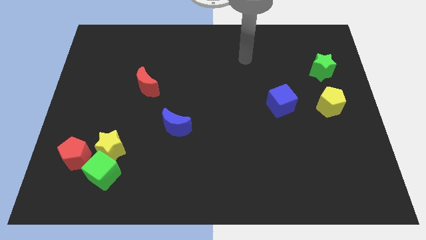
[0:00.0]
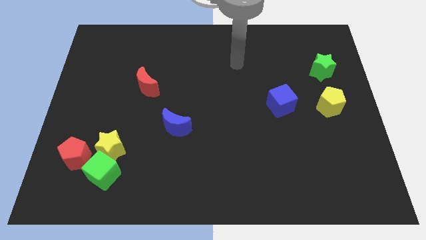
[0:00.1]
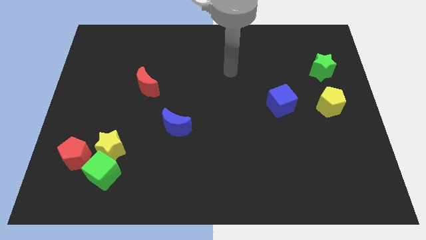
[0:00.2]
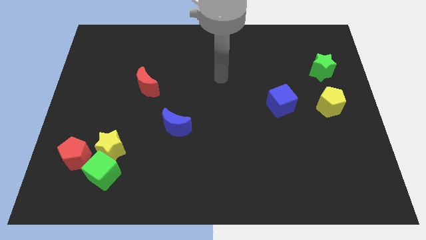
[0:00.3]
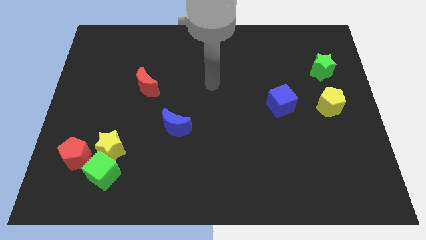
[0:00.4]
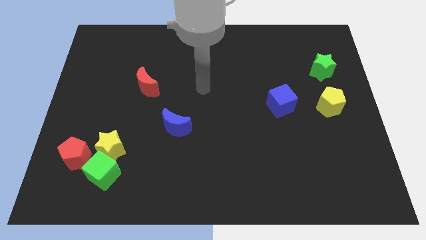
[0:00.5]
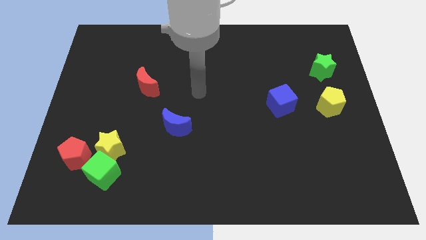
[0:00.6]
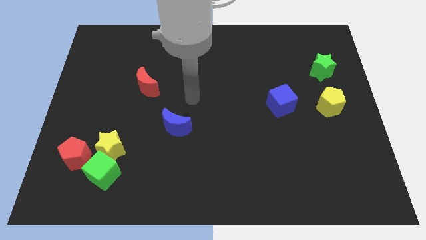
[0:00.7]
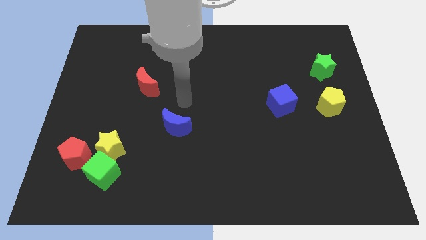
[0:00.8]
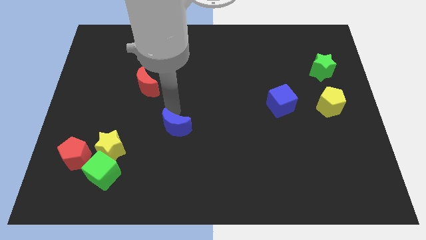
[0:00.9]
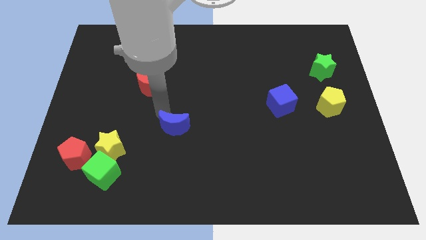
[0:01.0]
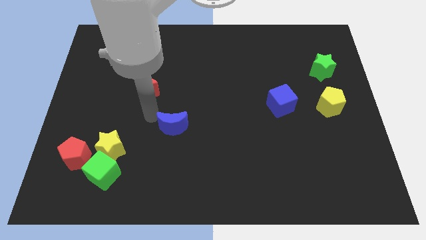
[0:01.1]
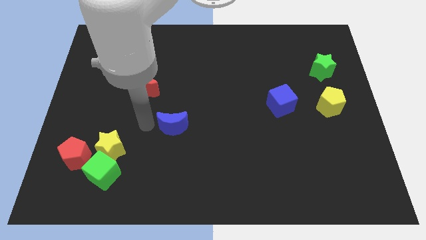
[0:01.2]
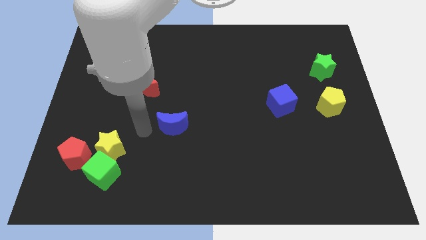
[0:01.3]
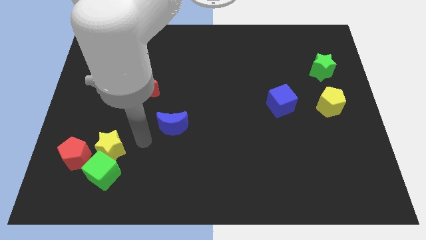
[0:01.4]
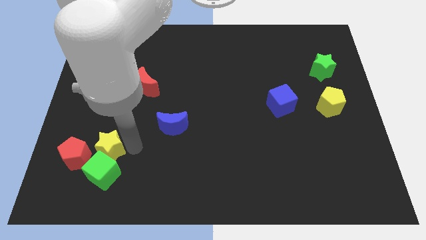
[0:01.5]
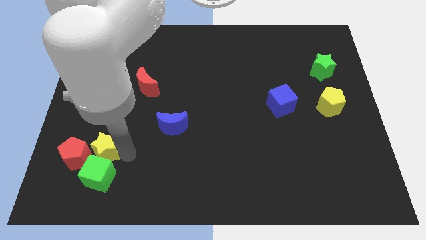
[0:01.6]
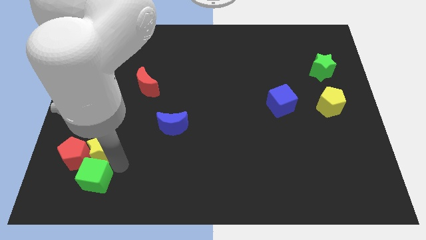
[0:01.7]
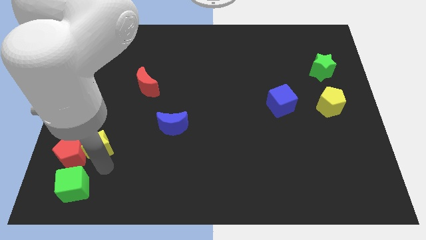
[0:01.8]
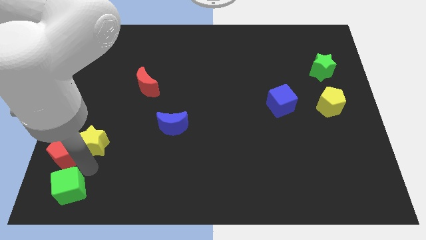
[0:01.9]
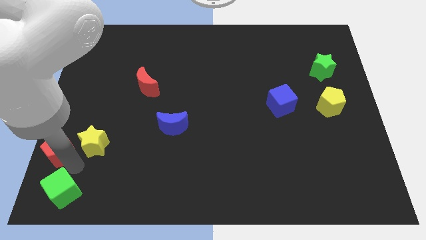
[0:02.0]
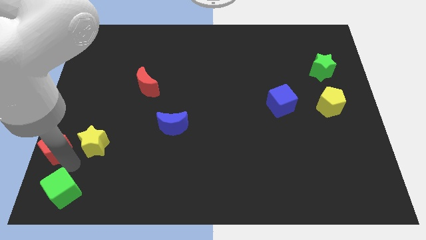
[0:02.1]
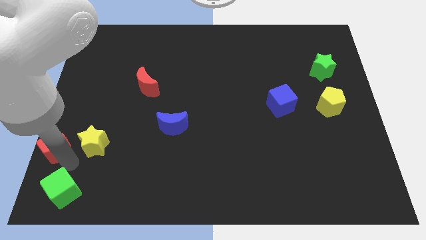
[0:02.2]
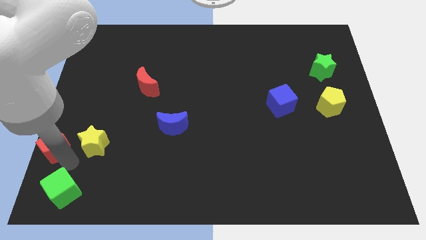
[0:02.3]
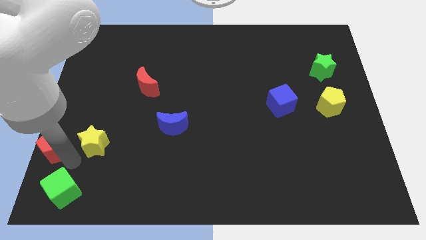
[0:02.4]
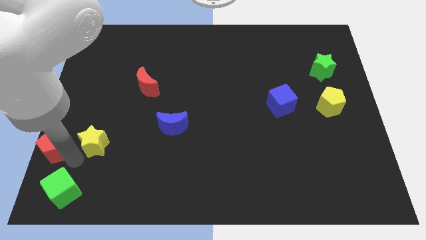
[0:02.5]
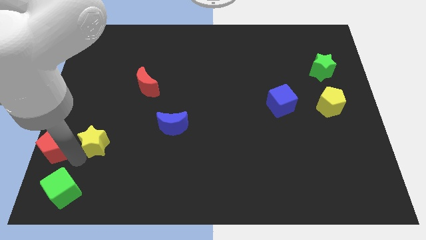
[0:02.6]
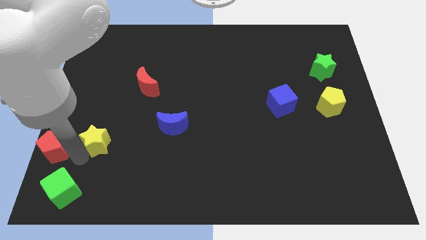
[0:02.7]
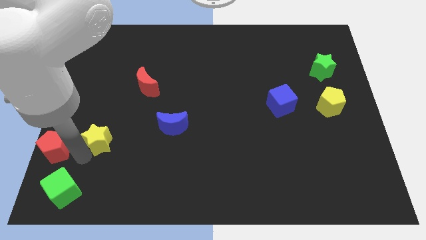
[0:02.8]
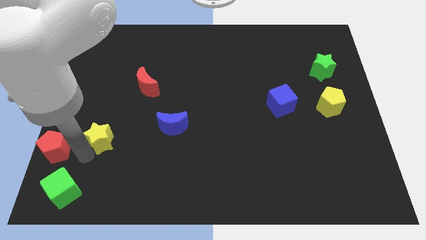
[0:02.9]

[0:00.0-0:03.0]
separate the yellow star from the green cube and red pentagon

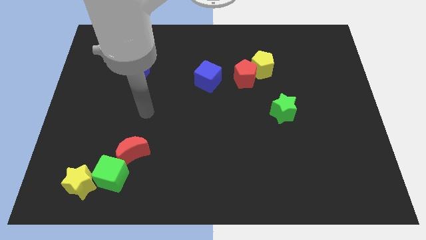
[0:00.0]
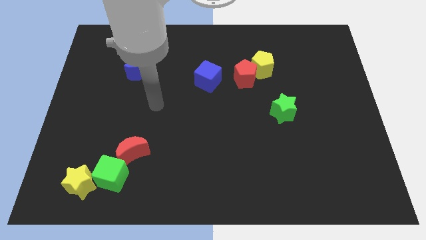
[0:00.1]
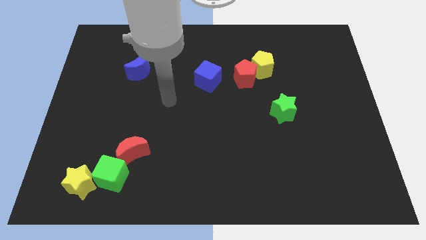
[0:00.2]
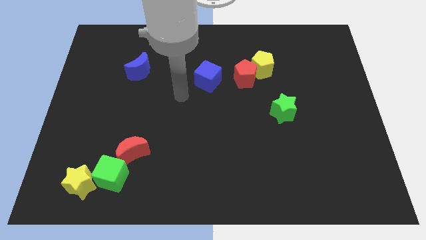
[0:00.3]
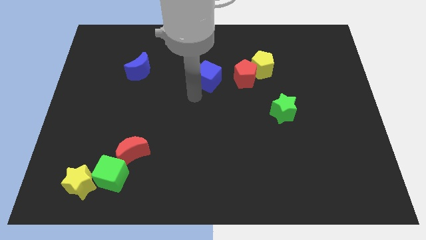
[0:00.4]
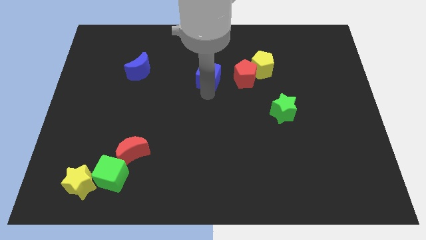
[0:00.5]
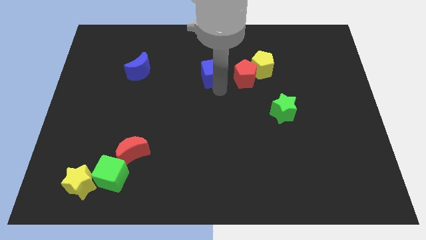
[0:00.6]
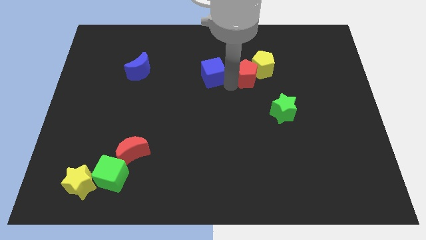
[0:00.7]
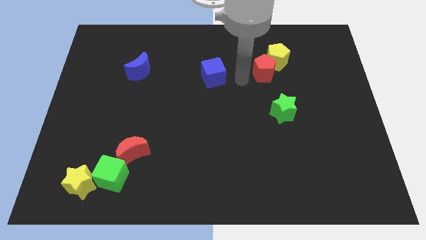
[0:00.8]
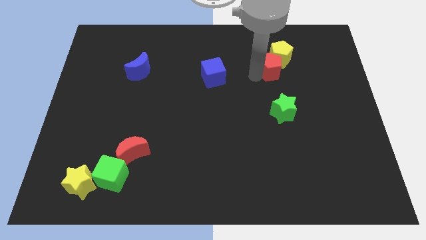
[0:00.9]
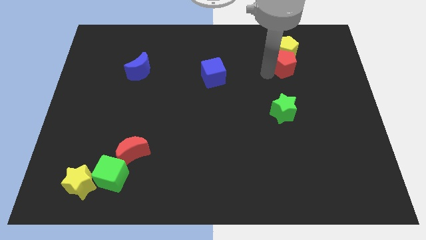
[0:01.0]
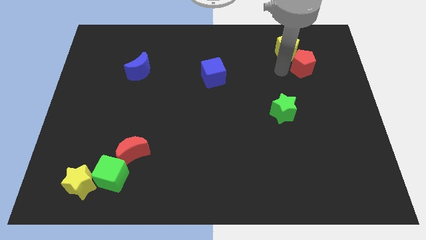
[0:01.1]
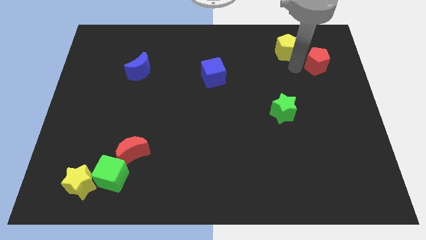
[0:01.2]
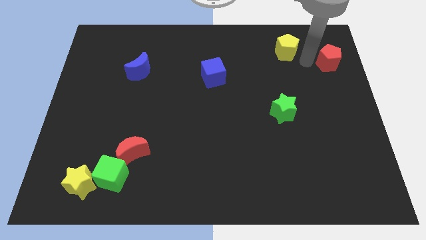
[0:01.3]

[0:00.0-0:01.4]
pull the yellow pentagon apart from the red pentagon

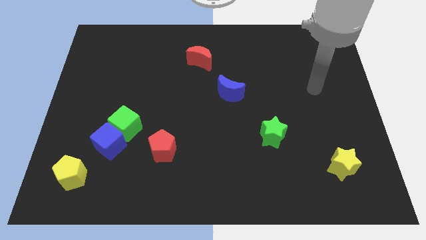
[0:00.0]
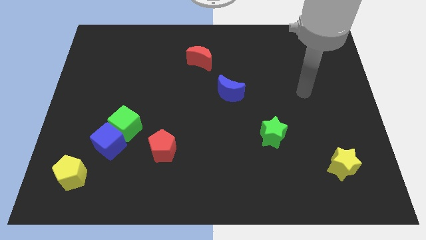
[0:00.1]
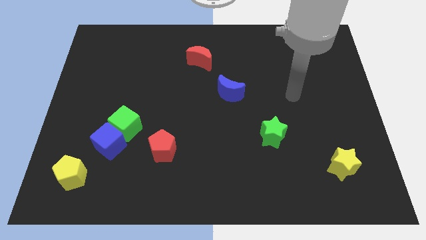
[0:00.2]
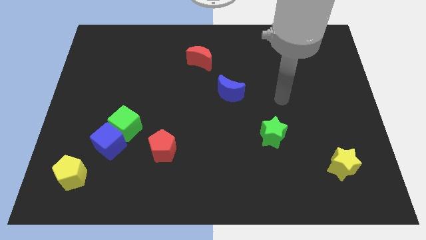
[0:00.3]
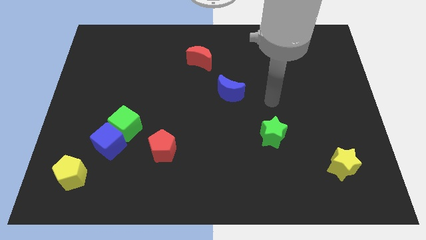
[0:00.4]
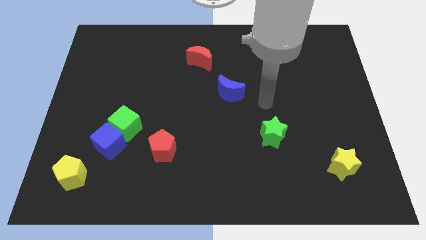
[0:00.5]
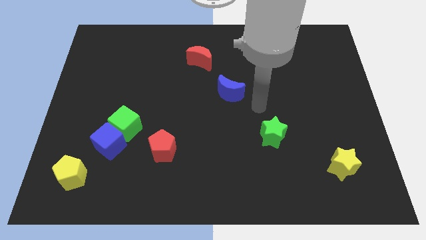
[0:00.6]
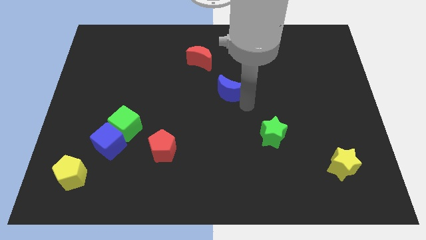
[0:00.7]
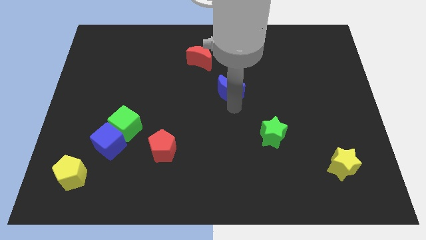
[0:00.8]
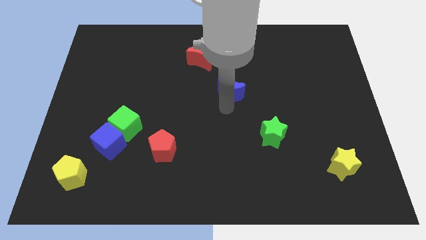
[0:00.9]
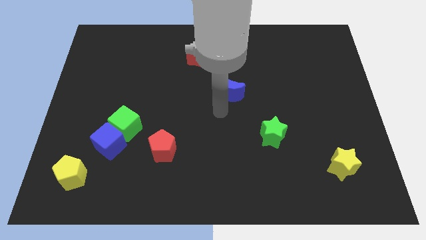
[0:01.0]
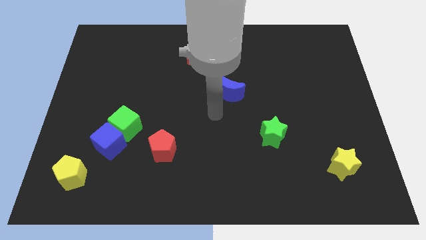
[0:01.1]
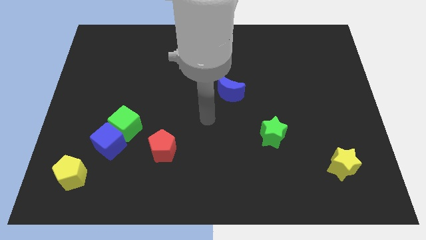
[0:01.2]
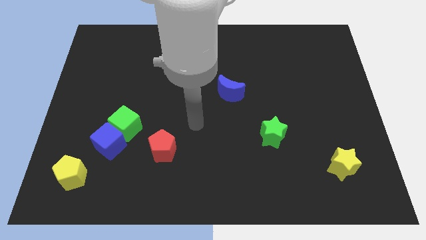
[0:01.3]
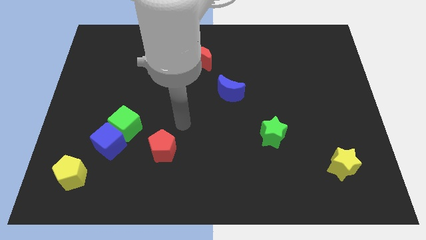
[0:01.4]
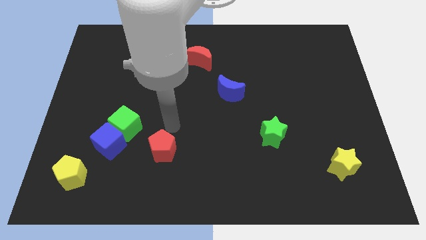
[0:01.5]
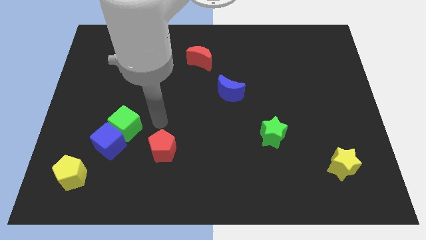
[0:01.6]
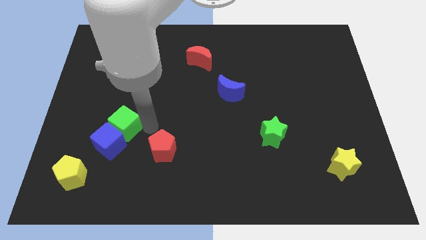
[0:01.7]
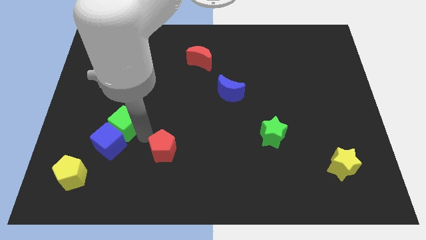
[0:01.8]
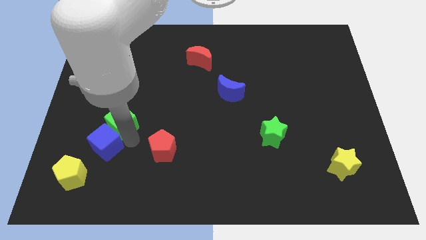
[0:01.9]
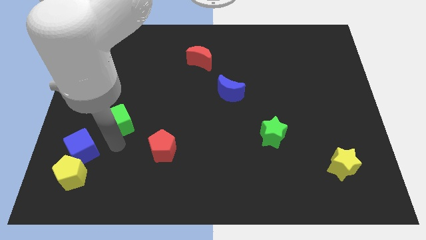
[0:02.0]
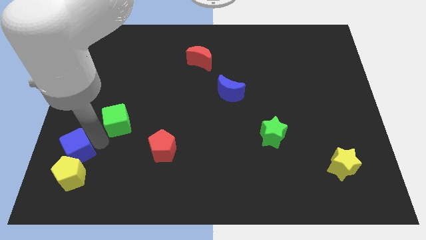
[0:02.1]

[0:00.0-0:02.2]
pull the green cube apart from the blue cube

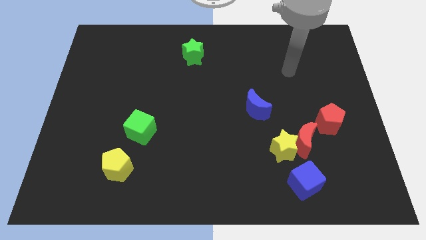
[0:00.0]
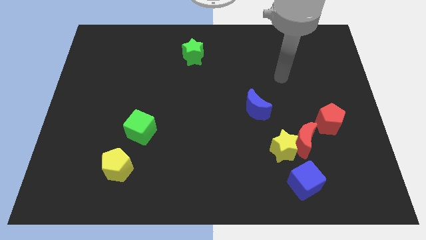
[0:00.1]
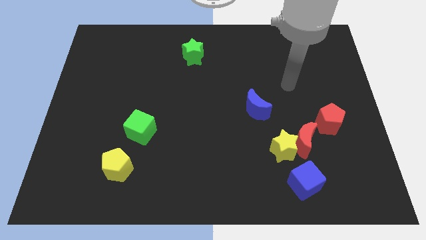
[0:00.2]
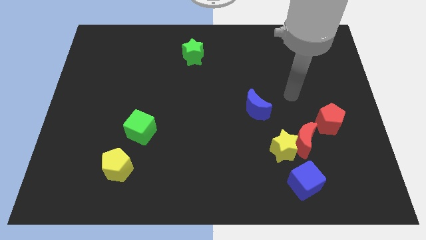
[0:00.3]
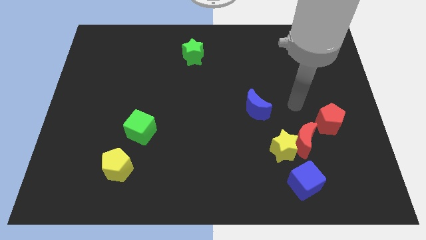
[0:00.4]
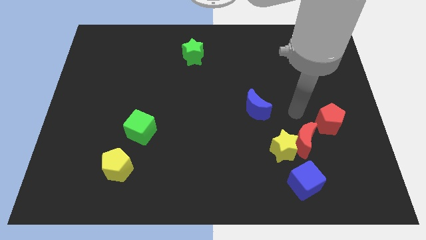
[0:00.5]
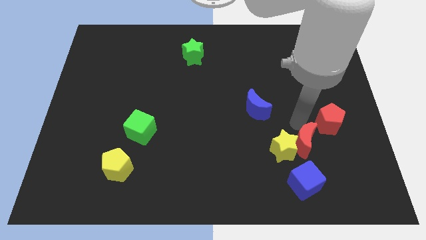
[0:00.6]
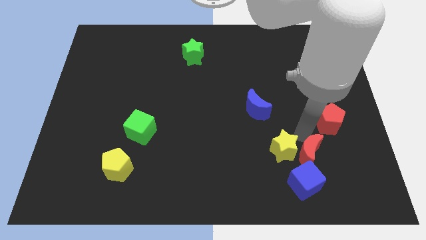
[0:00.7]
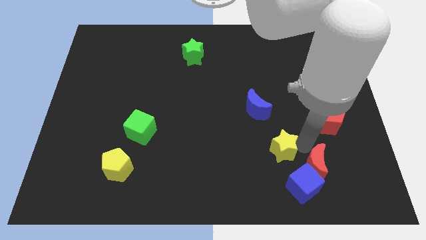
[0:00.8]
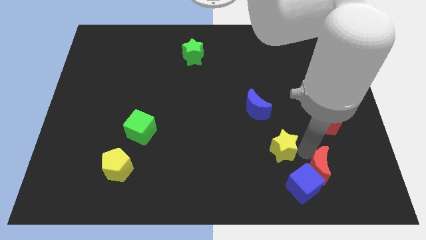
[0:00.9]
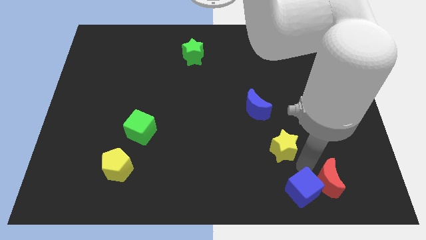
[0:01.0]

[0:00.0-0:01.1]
move the yellow star away from the red moon and blue cube

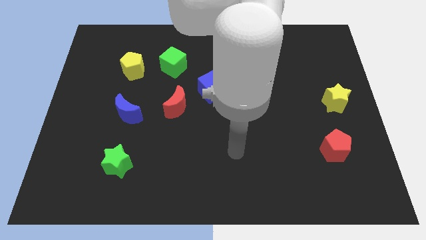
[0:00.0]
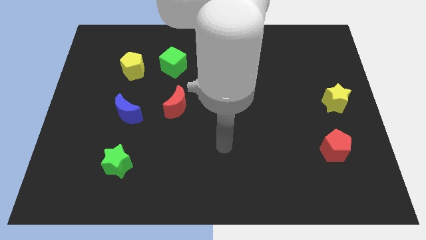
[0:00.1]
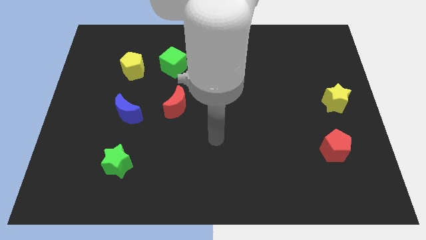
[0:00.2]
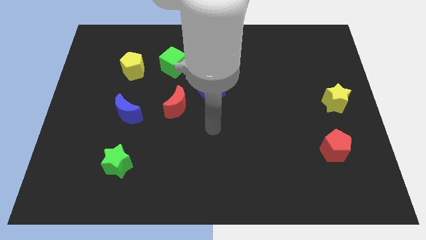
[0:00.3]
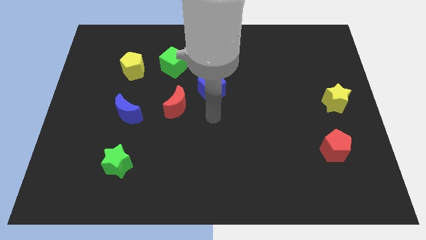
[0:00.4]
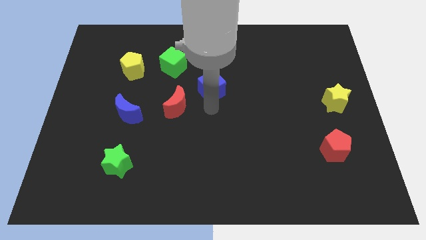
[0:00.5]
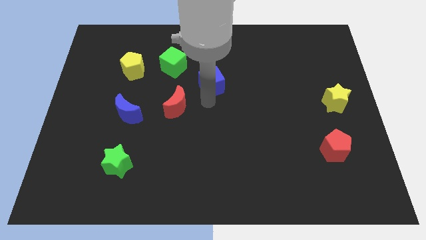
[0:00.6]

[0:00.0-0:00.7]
separate the red moon from the blue cube

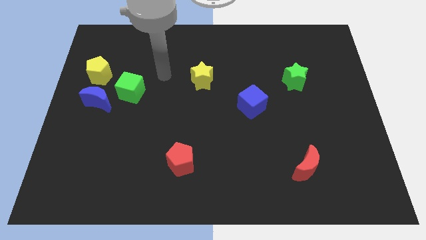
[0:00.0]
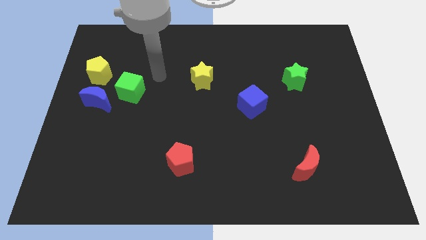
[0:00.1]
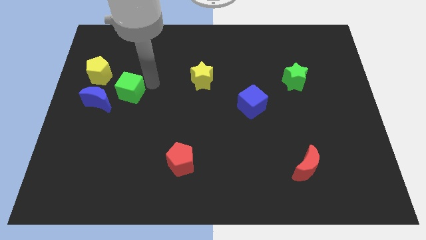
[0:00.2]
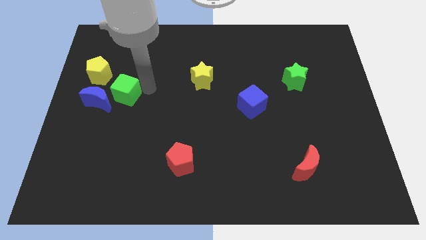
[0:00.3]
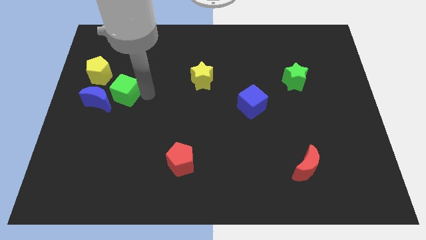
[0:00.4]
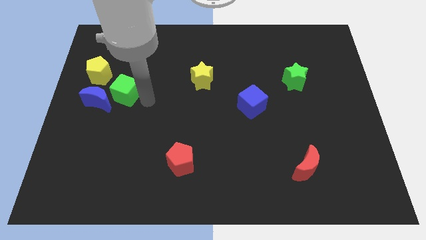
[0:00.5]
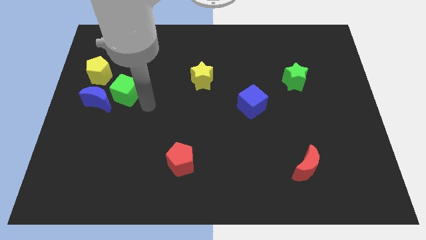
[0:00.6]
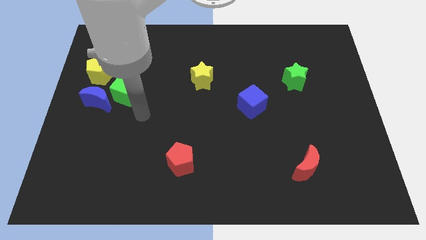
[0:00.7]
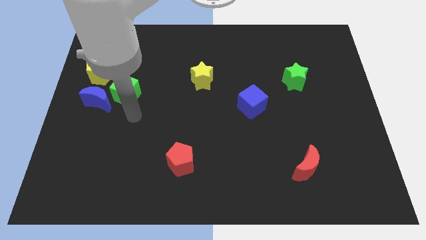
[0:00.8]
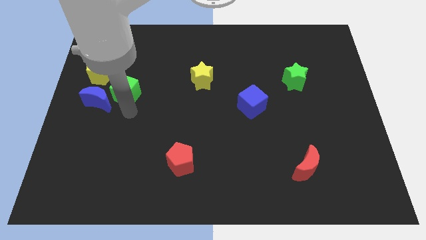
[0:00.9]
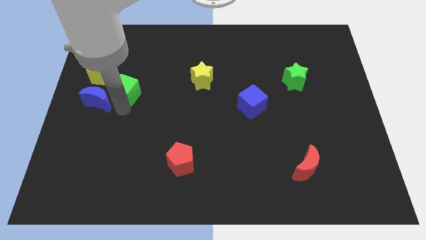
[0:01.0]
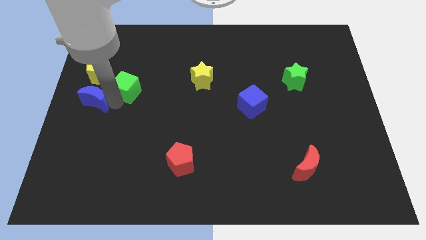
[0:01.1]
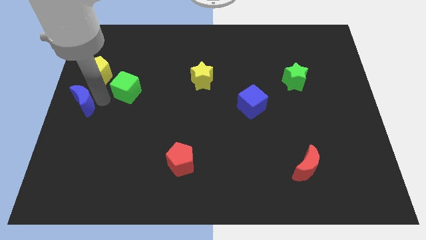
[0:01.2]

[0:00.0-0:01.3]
pull the green cube apart from the blue moon
